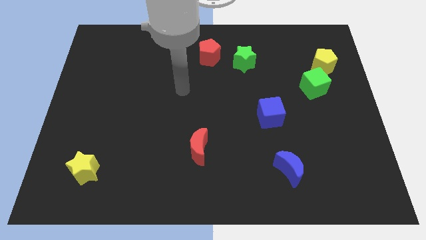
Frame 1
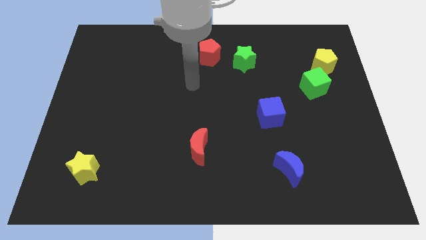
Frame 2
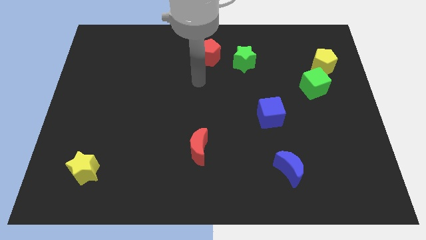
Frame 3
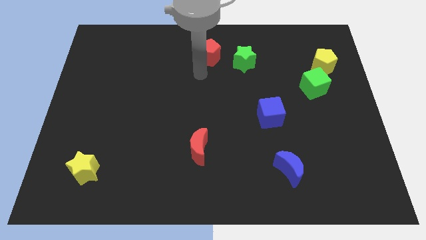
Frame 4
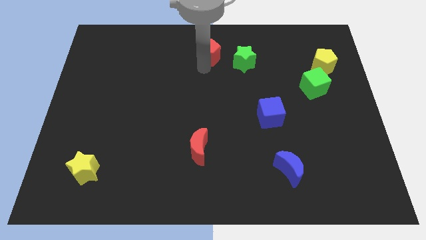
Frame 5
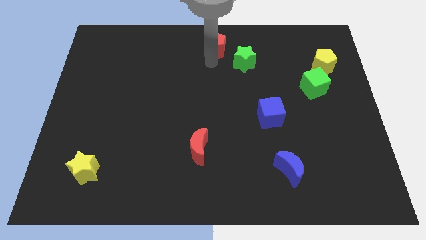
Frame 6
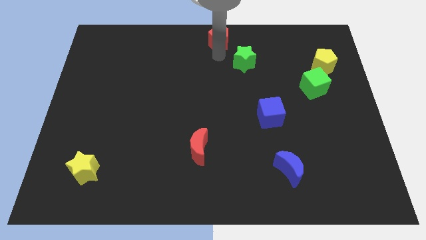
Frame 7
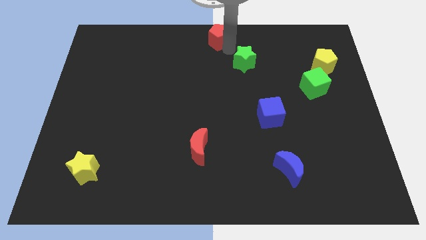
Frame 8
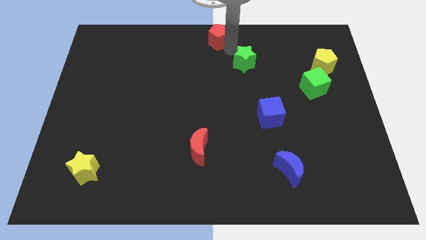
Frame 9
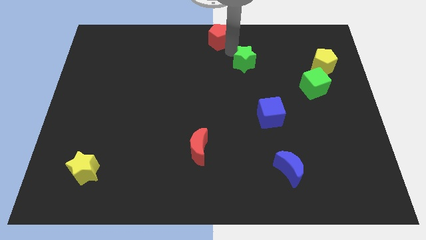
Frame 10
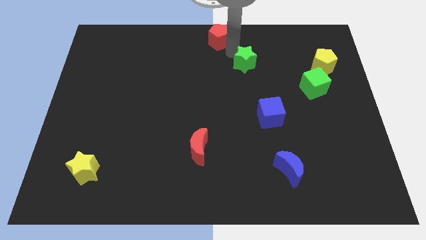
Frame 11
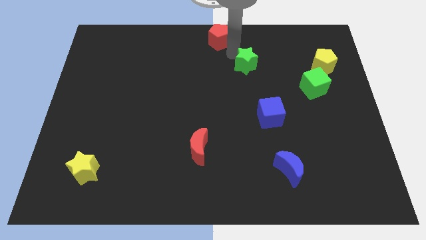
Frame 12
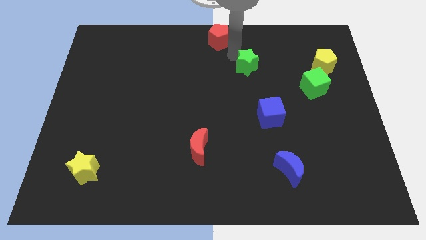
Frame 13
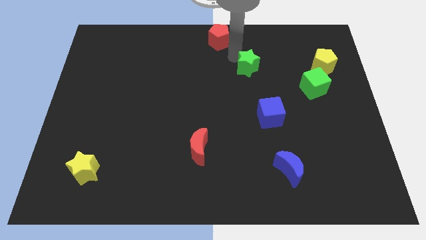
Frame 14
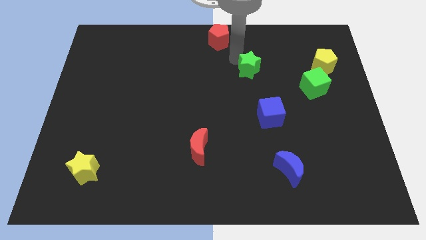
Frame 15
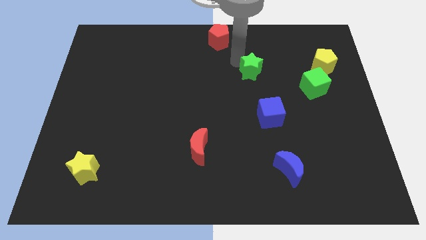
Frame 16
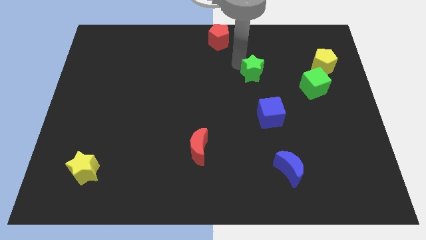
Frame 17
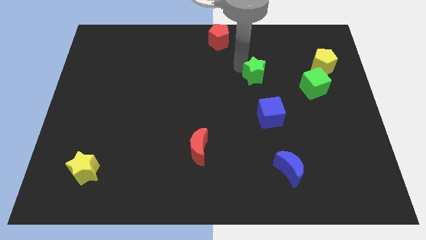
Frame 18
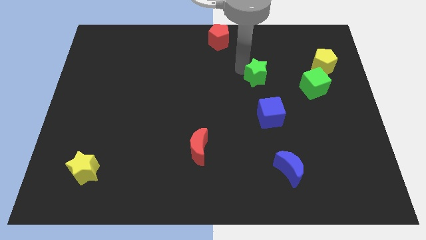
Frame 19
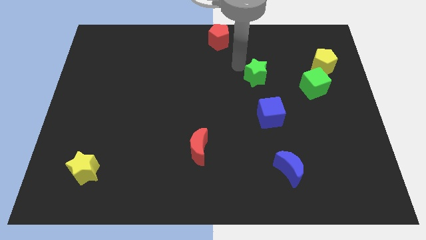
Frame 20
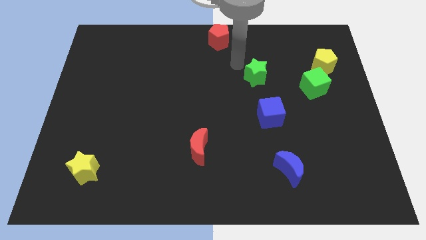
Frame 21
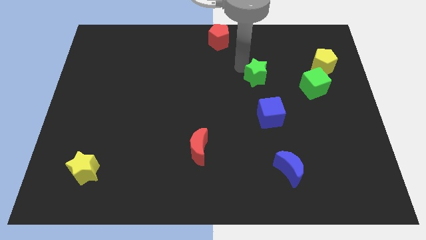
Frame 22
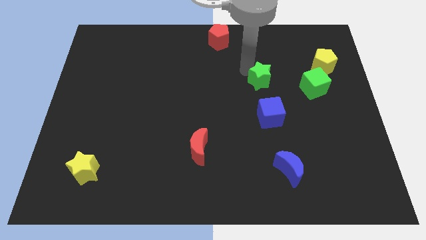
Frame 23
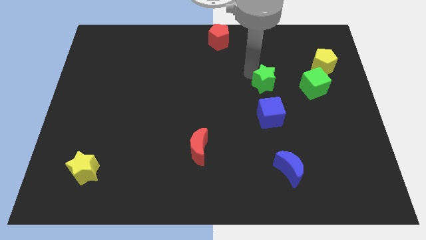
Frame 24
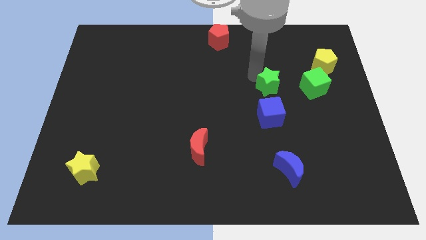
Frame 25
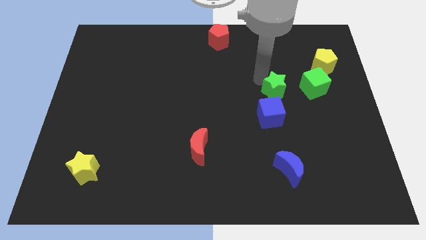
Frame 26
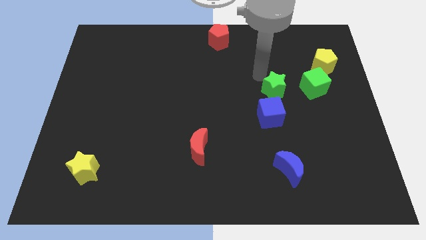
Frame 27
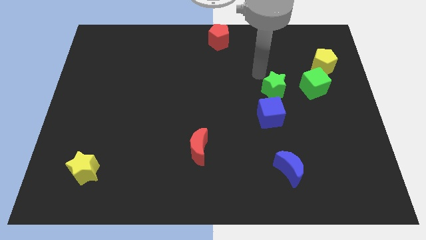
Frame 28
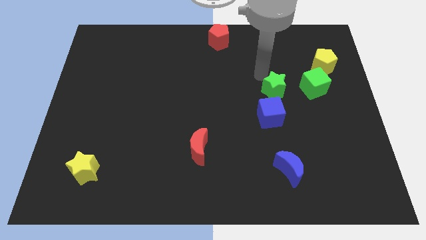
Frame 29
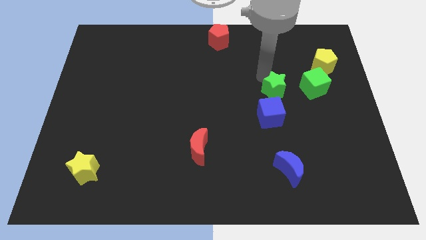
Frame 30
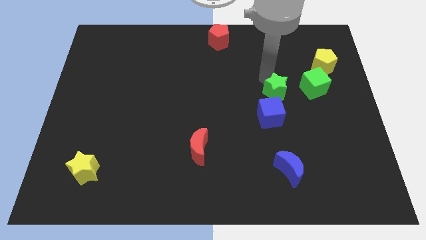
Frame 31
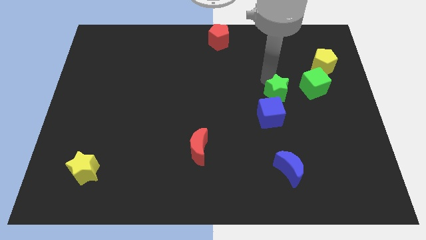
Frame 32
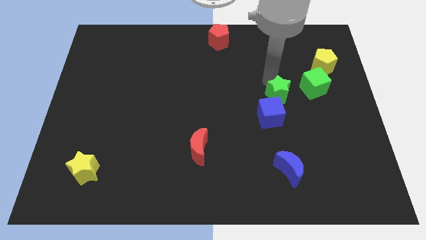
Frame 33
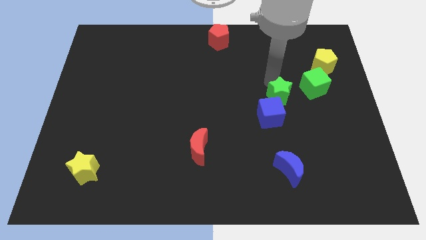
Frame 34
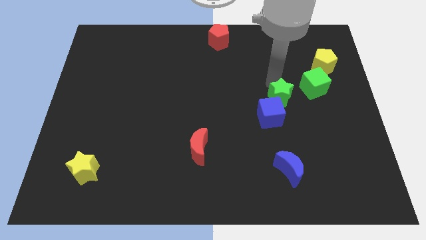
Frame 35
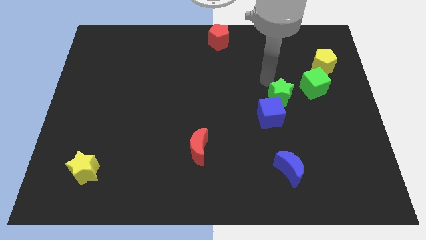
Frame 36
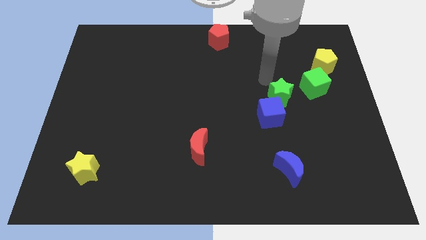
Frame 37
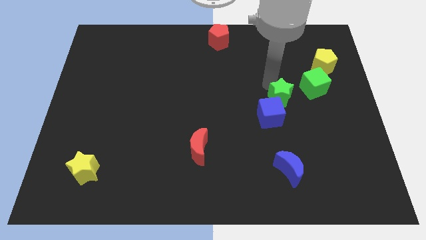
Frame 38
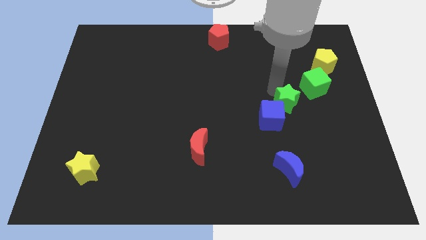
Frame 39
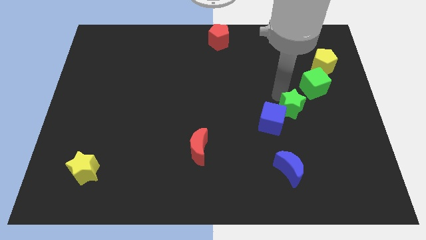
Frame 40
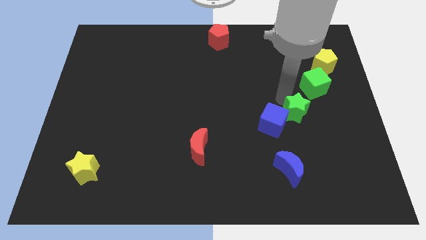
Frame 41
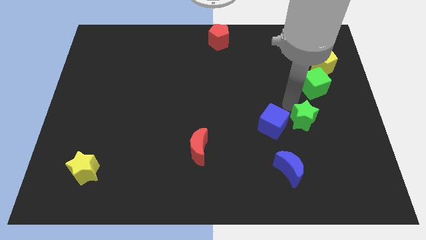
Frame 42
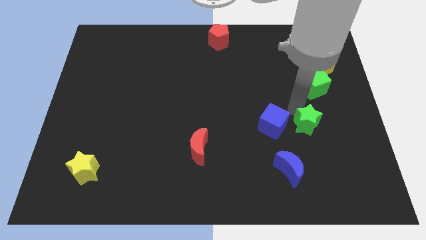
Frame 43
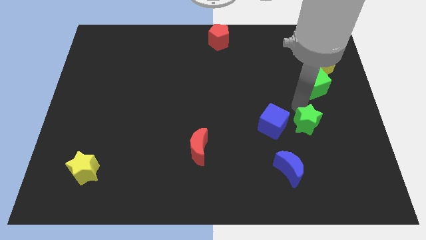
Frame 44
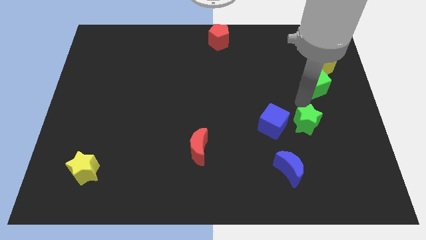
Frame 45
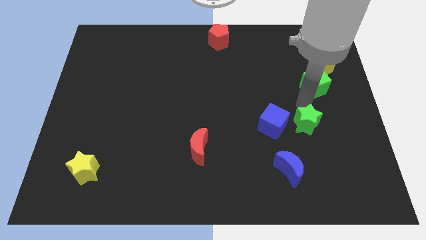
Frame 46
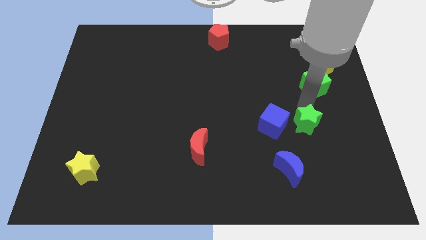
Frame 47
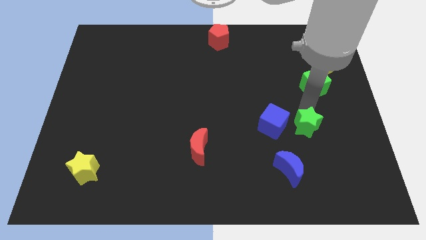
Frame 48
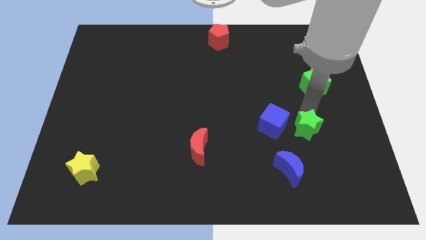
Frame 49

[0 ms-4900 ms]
slide the green star to the top right of the blue moon

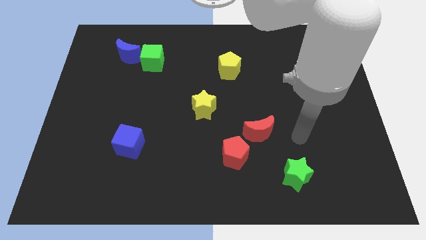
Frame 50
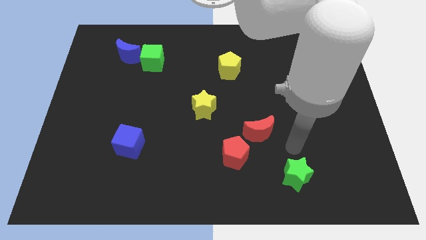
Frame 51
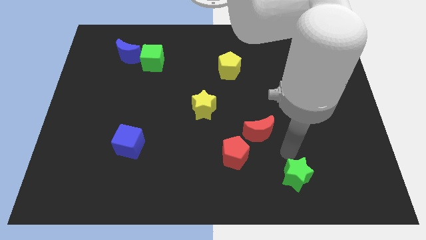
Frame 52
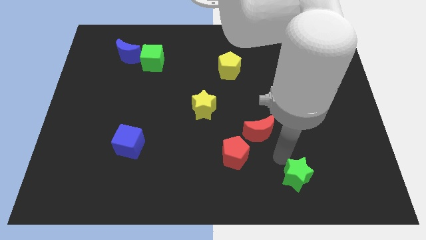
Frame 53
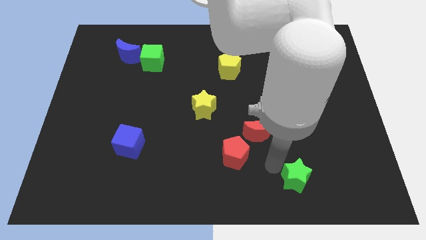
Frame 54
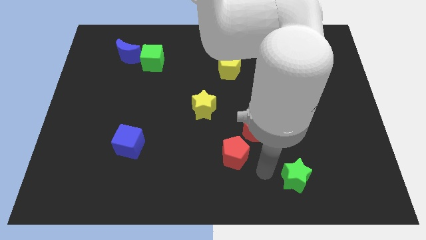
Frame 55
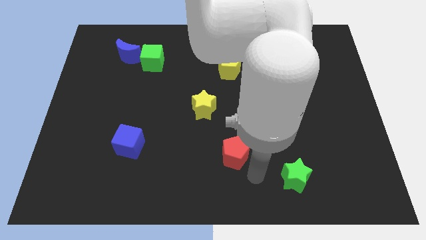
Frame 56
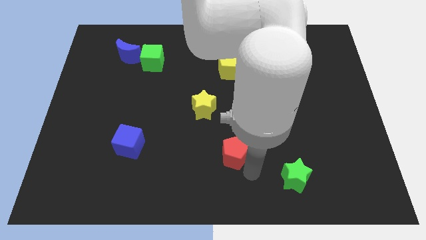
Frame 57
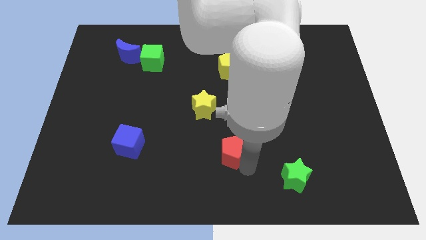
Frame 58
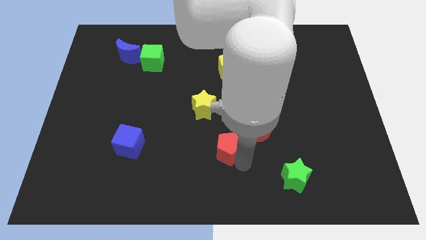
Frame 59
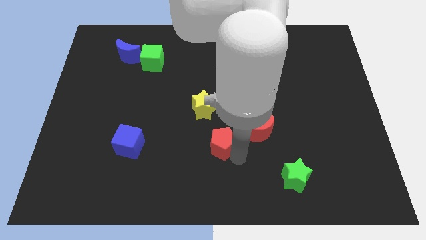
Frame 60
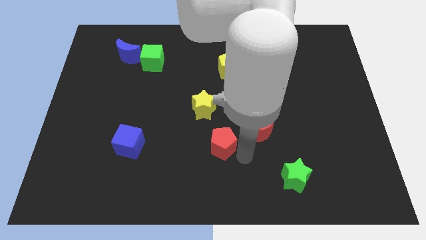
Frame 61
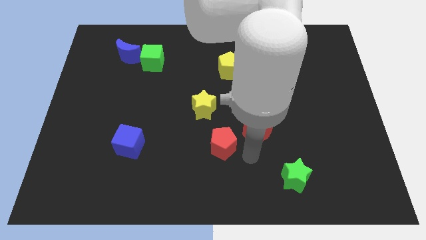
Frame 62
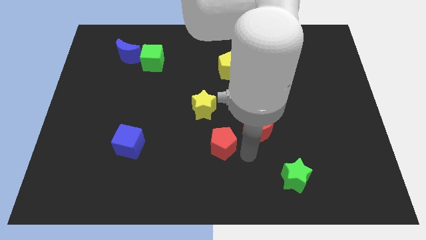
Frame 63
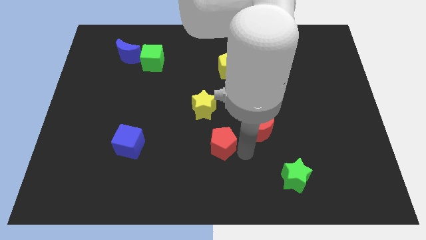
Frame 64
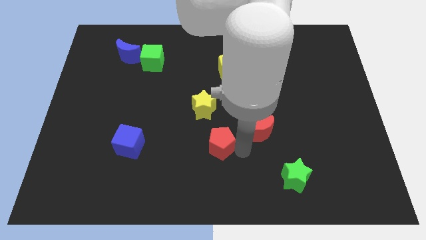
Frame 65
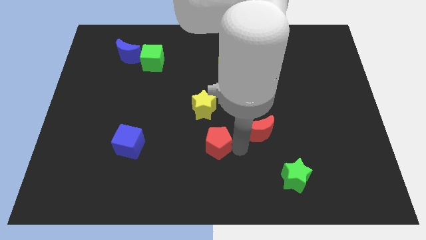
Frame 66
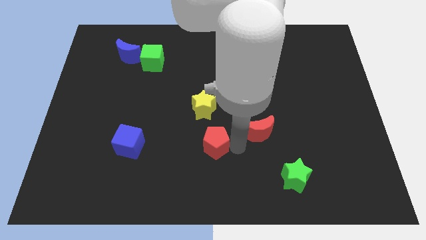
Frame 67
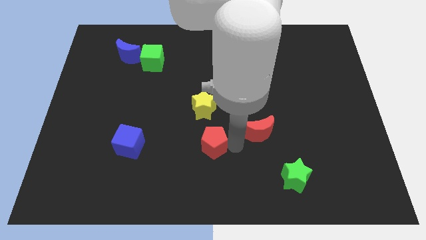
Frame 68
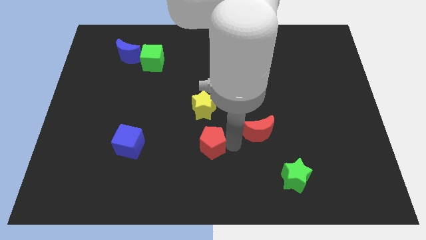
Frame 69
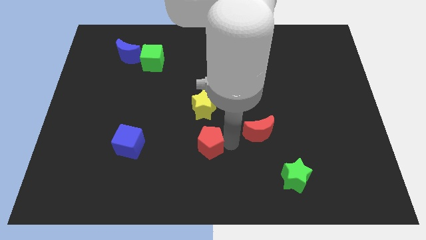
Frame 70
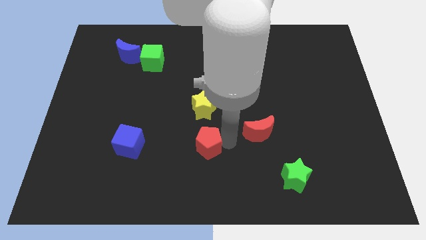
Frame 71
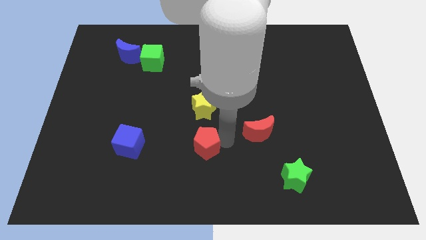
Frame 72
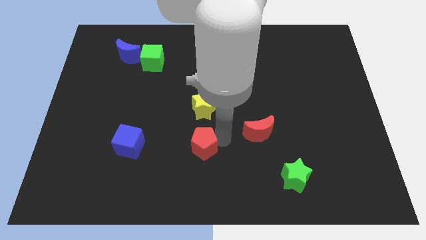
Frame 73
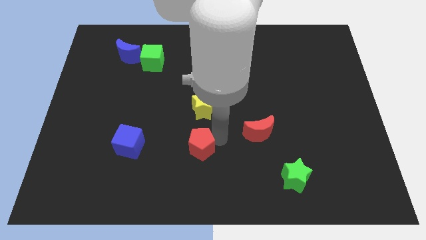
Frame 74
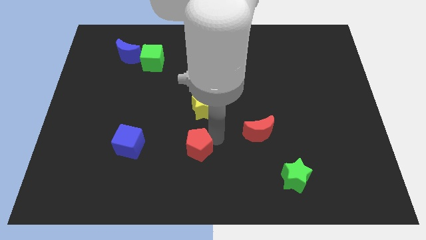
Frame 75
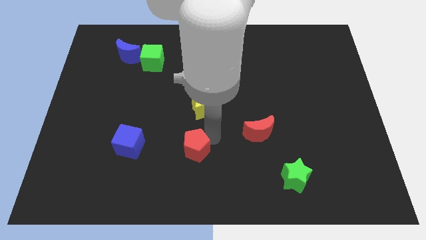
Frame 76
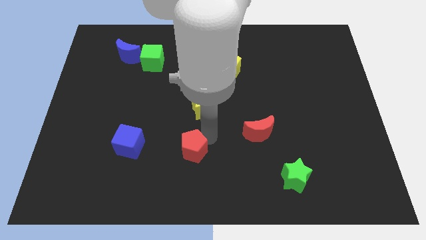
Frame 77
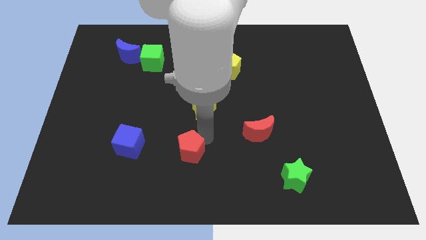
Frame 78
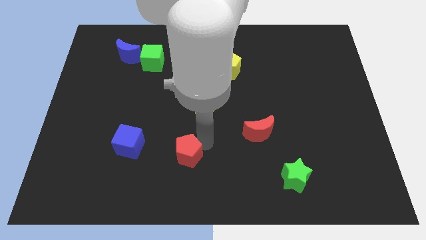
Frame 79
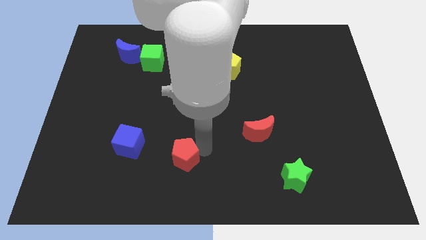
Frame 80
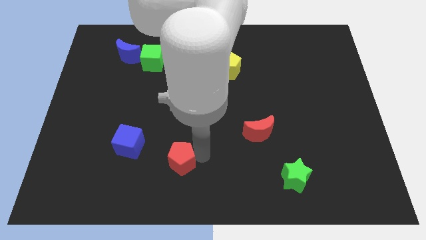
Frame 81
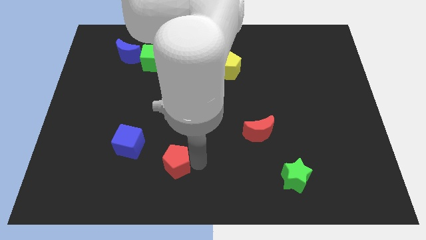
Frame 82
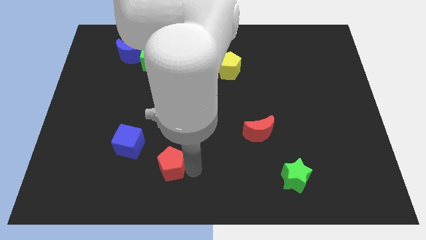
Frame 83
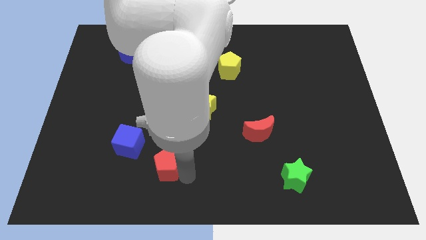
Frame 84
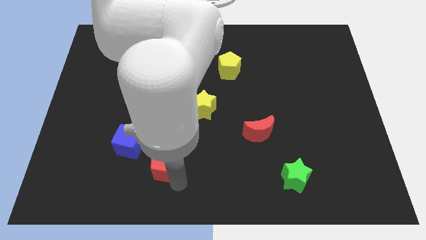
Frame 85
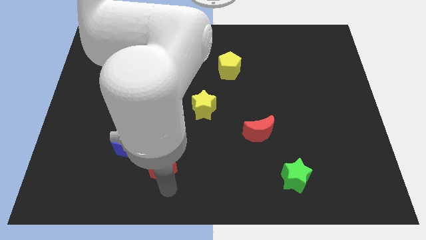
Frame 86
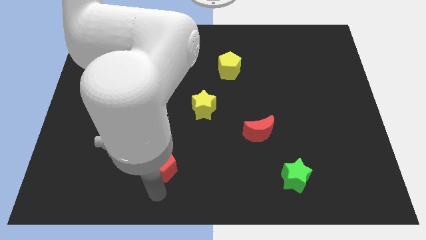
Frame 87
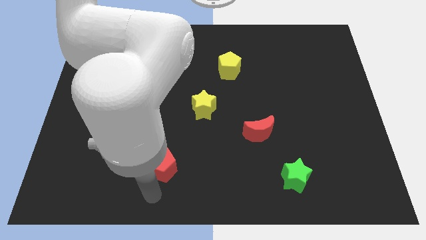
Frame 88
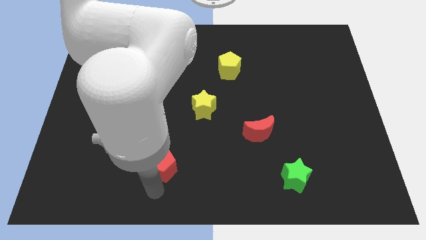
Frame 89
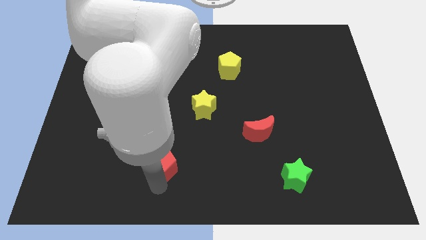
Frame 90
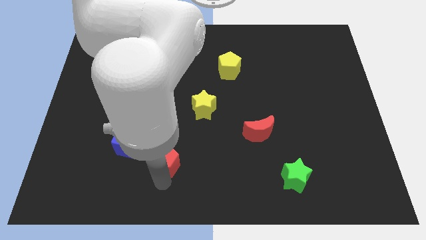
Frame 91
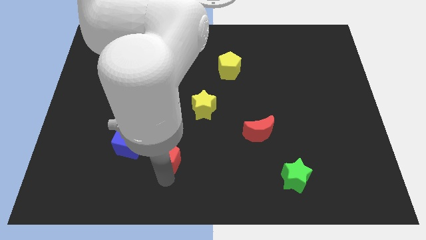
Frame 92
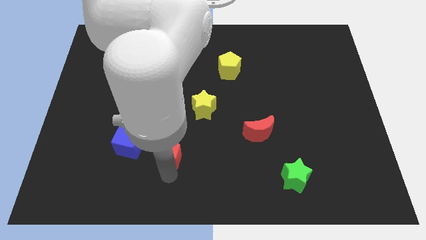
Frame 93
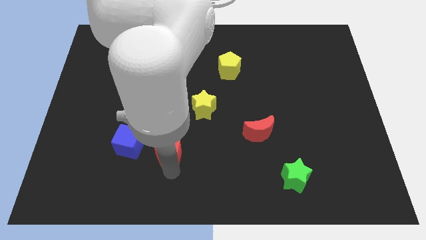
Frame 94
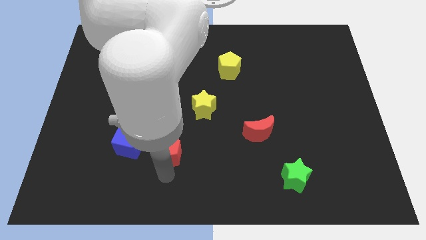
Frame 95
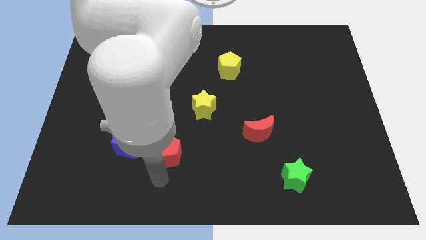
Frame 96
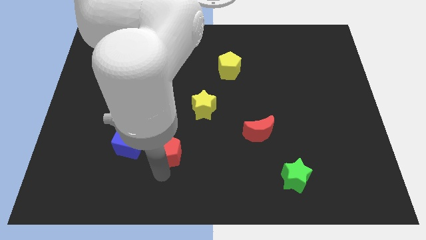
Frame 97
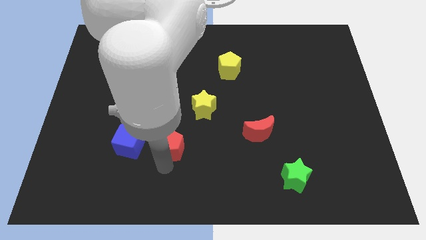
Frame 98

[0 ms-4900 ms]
slide the red pentagon to the bottom left side of the yellow star
